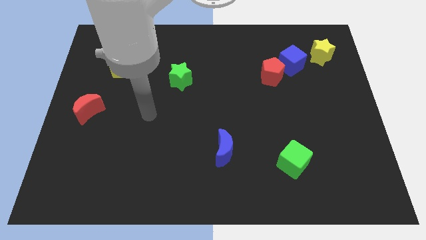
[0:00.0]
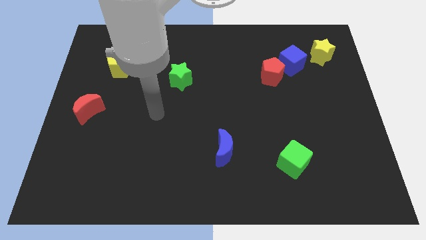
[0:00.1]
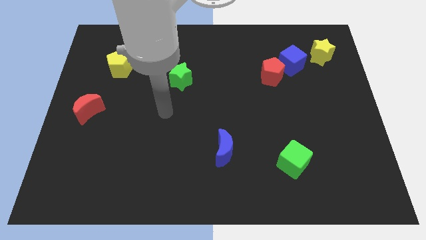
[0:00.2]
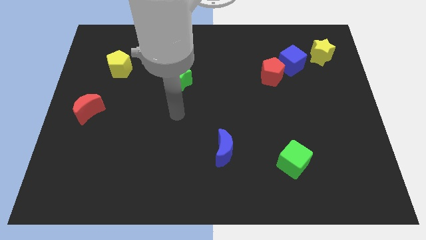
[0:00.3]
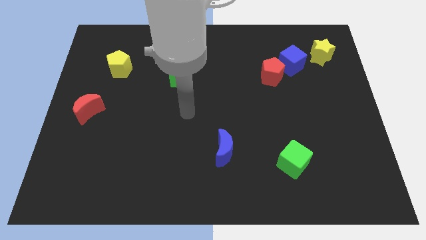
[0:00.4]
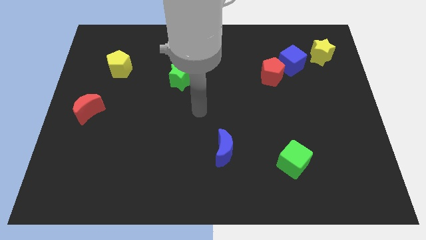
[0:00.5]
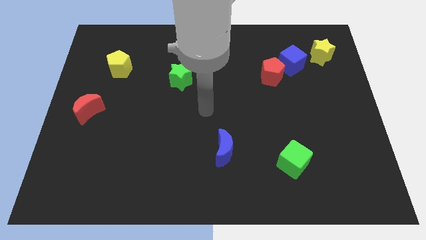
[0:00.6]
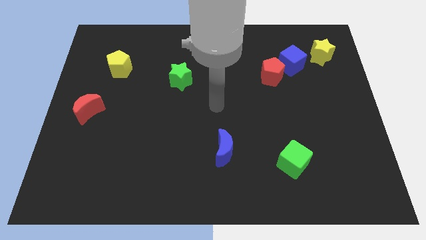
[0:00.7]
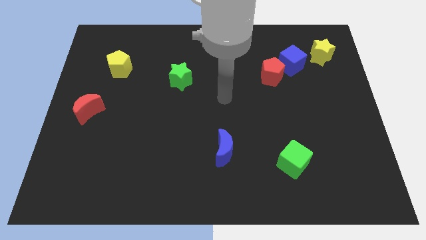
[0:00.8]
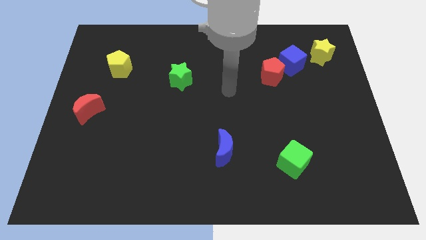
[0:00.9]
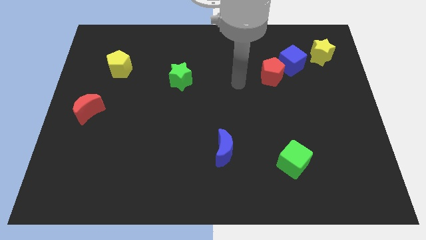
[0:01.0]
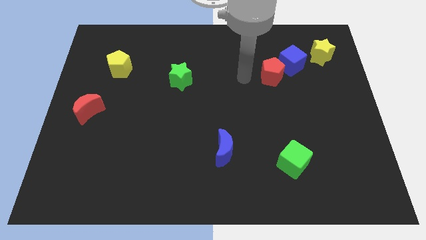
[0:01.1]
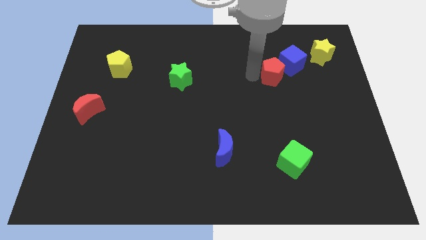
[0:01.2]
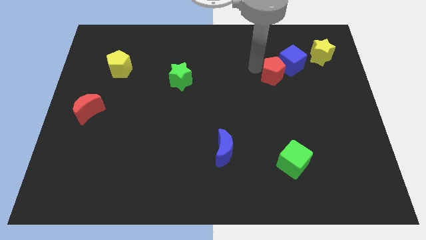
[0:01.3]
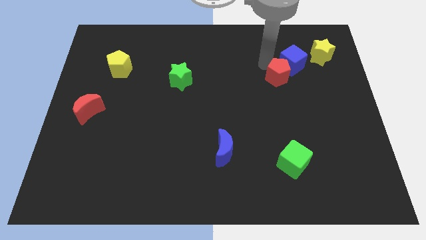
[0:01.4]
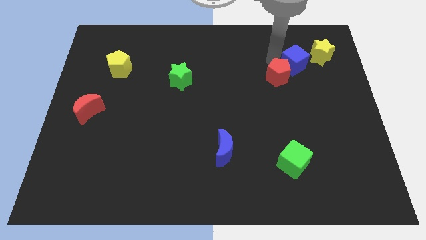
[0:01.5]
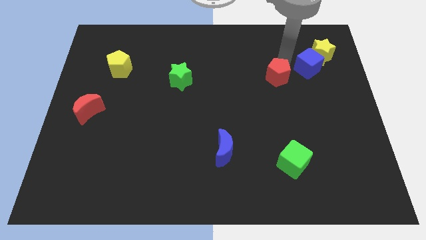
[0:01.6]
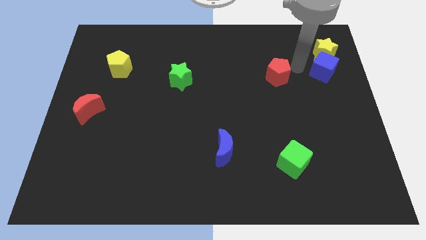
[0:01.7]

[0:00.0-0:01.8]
separate the red pentagon from the blue cube

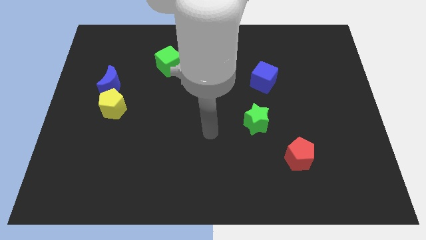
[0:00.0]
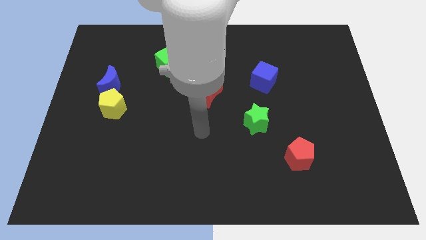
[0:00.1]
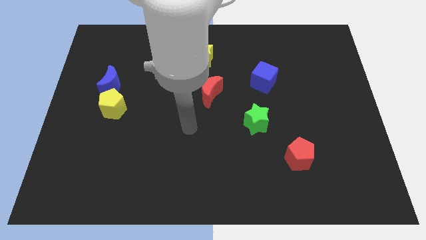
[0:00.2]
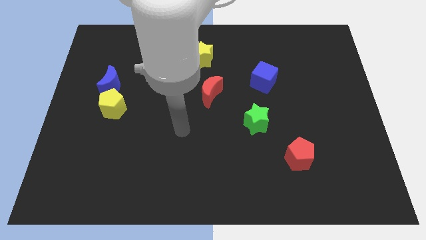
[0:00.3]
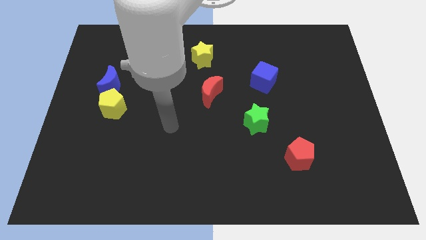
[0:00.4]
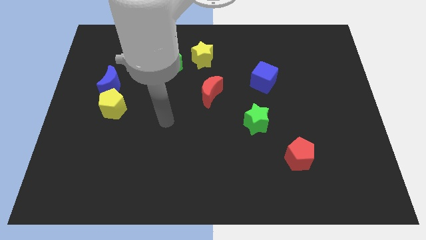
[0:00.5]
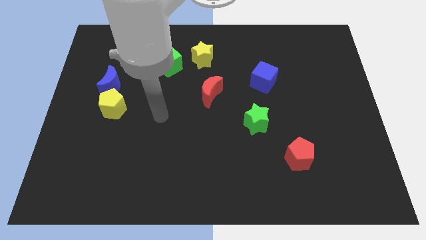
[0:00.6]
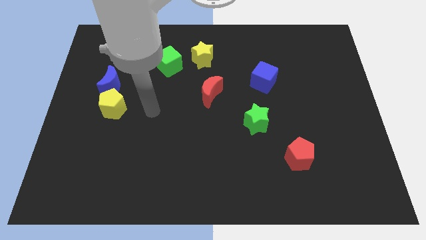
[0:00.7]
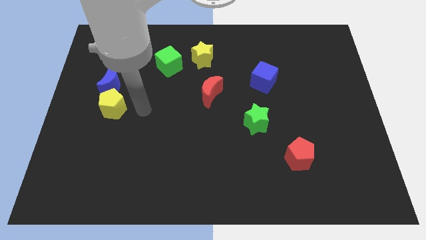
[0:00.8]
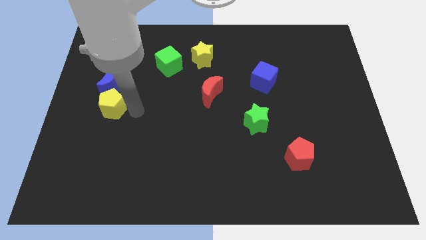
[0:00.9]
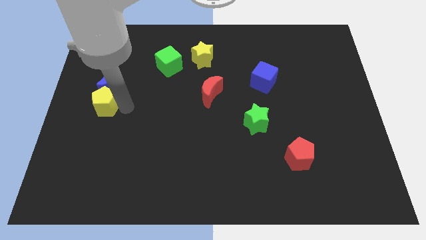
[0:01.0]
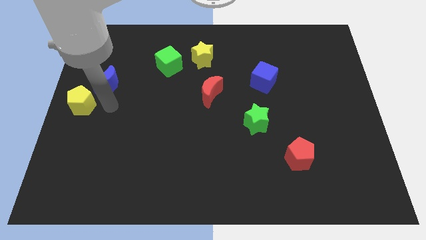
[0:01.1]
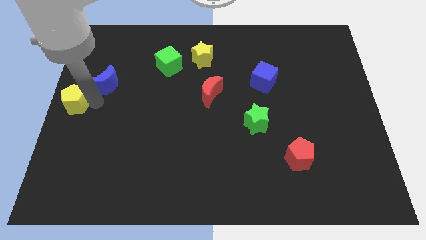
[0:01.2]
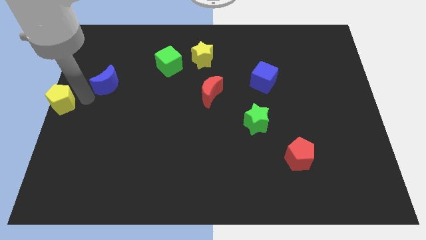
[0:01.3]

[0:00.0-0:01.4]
pull the blue moon apart from the yellow pentagon

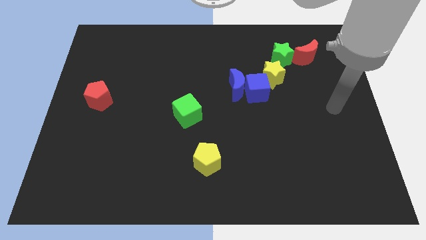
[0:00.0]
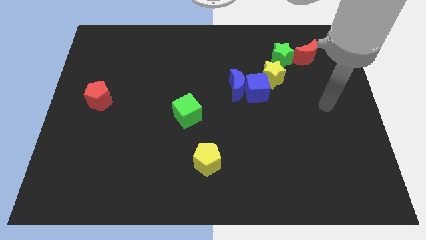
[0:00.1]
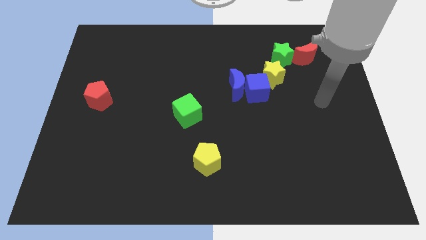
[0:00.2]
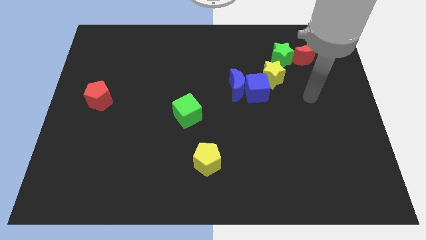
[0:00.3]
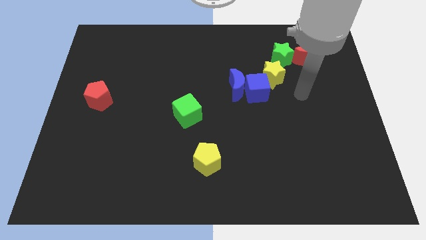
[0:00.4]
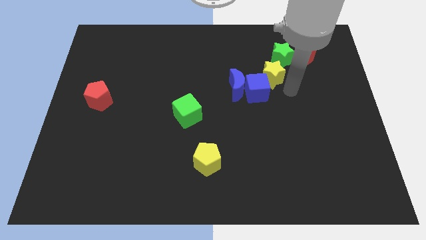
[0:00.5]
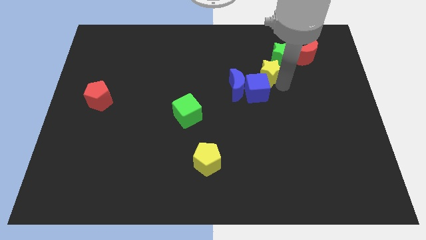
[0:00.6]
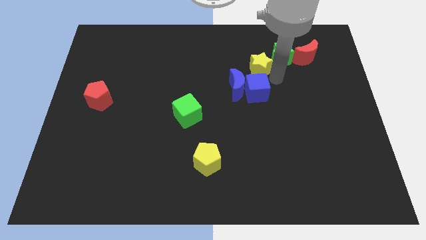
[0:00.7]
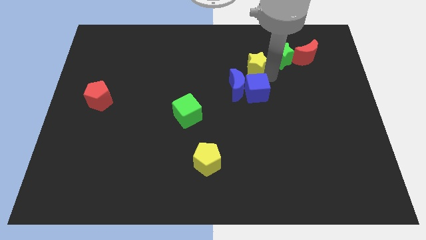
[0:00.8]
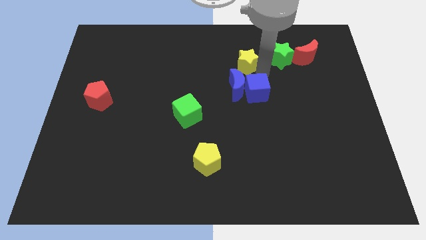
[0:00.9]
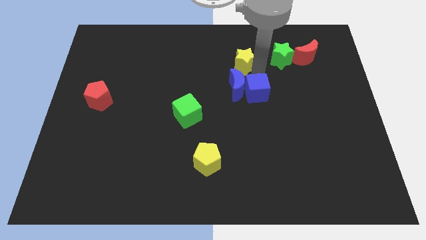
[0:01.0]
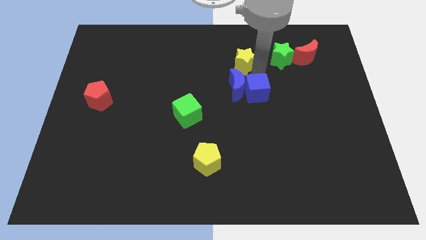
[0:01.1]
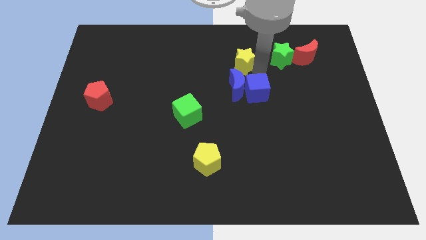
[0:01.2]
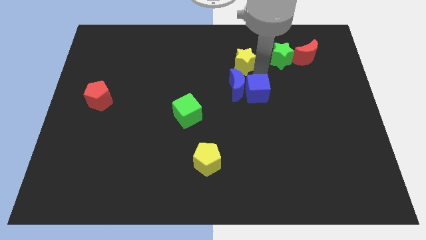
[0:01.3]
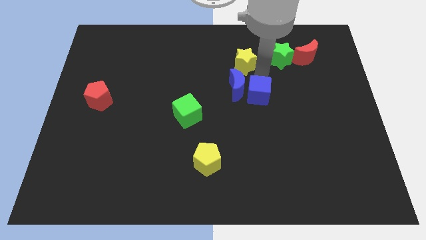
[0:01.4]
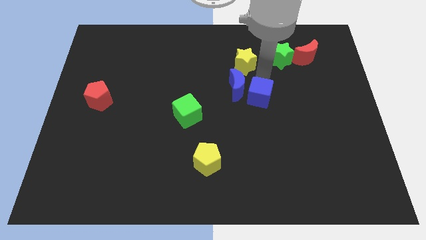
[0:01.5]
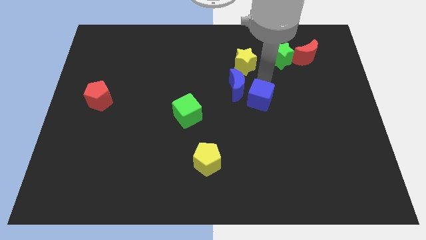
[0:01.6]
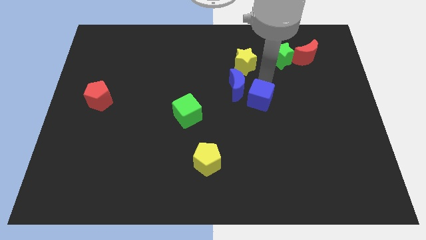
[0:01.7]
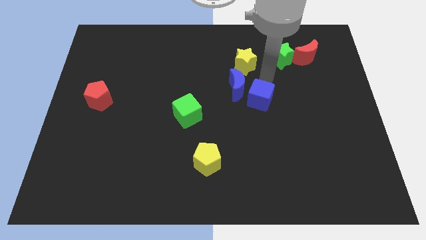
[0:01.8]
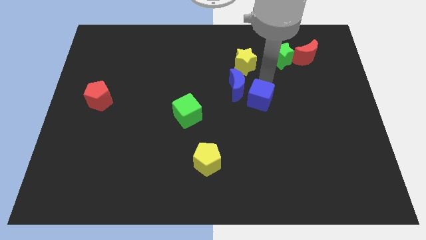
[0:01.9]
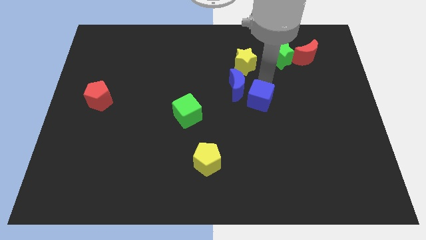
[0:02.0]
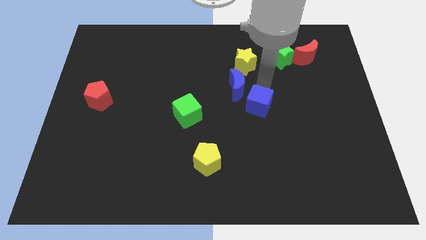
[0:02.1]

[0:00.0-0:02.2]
pull the blue cube apart from the blue moon and yellow star

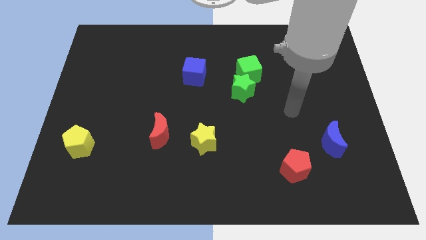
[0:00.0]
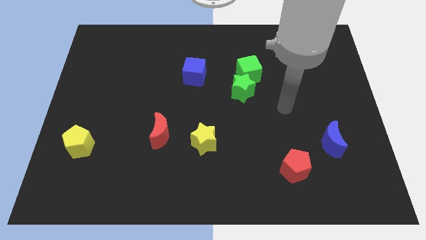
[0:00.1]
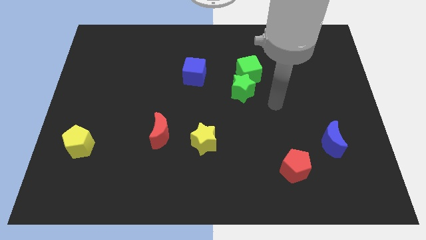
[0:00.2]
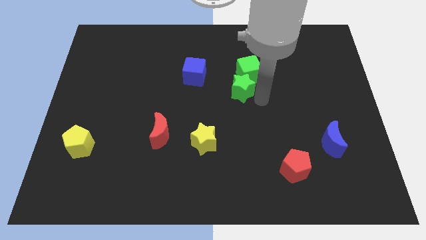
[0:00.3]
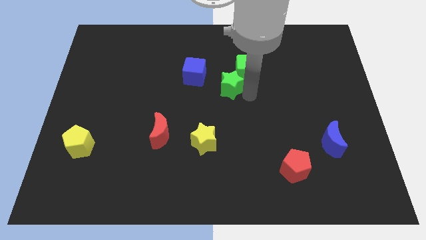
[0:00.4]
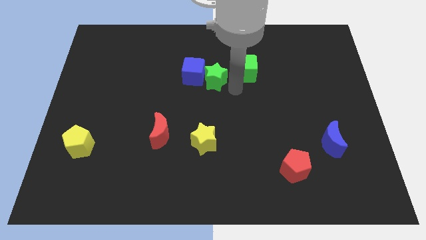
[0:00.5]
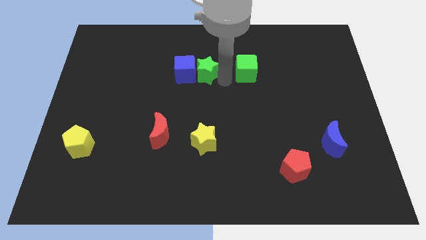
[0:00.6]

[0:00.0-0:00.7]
pull the green cube apart from the green star

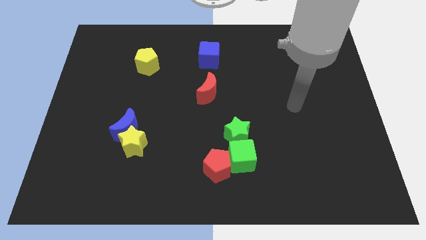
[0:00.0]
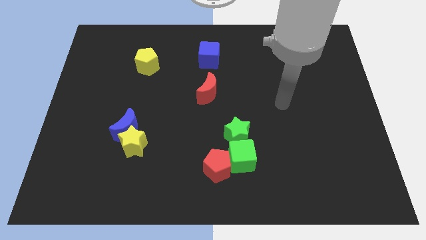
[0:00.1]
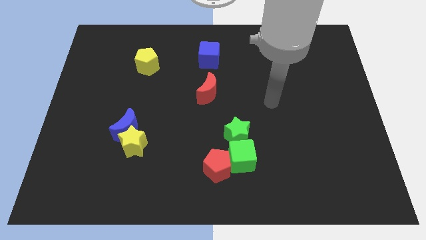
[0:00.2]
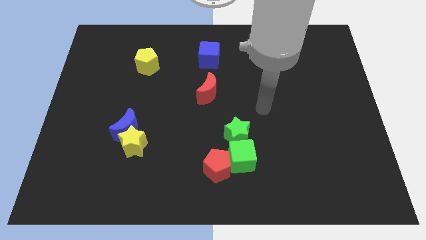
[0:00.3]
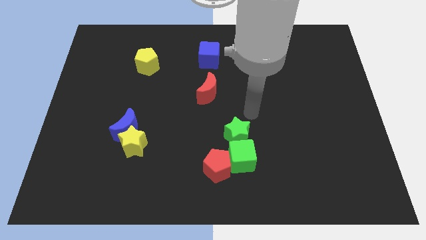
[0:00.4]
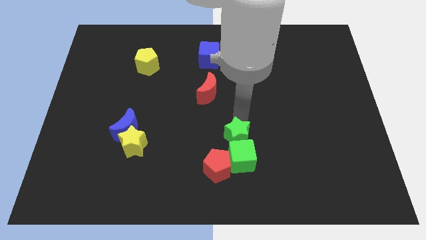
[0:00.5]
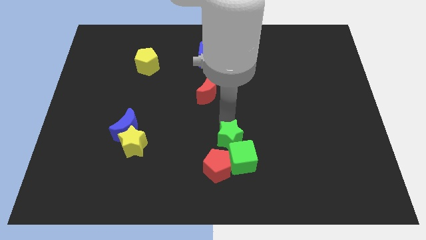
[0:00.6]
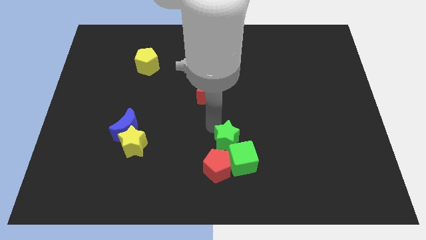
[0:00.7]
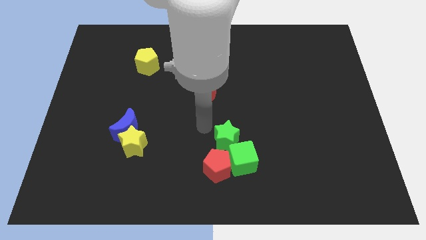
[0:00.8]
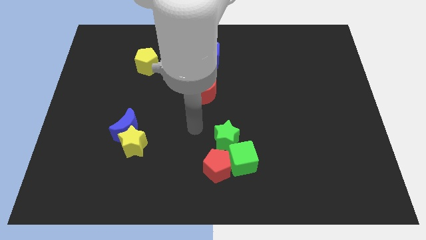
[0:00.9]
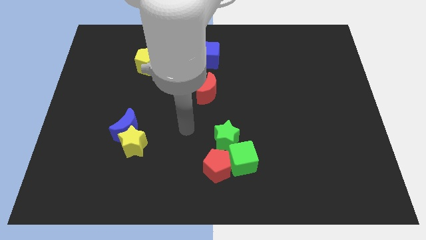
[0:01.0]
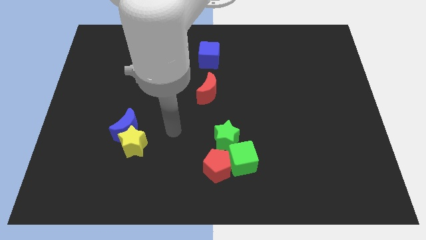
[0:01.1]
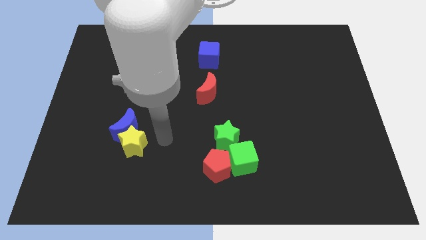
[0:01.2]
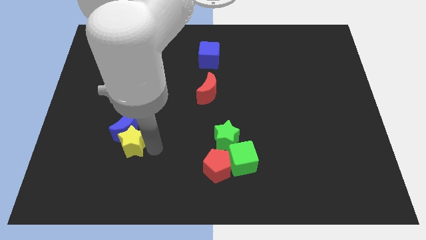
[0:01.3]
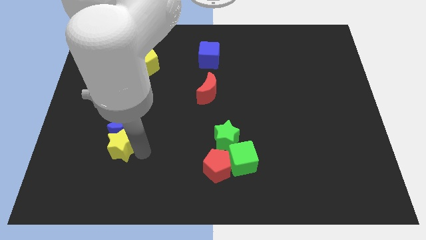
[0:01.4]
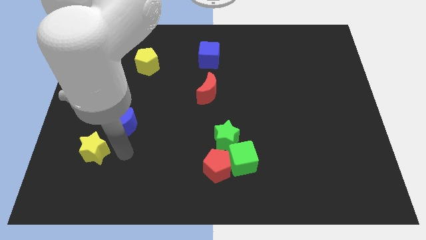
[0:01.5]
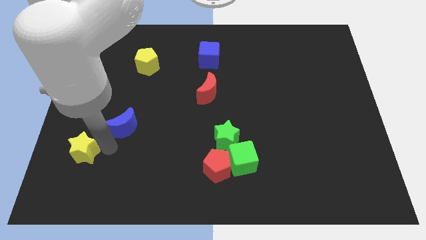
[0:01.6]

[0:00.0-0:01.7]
separate the blue moon from the yellow star

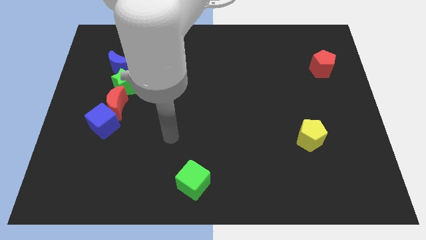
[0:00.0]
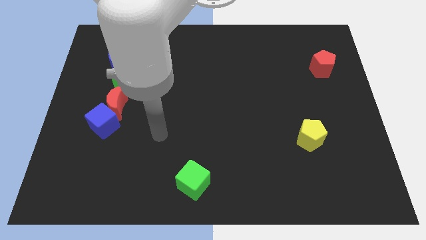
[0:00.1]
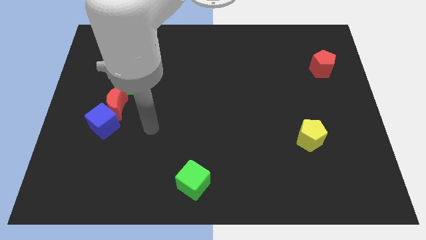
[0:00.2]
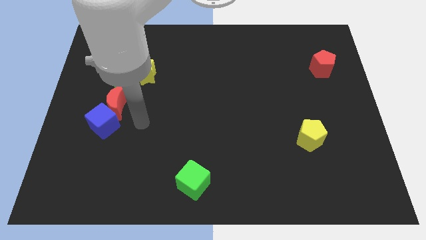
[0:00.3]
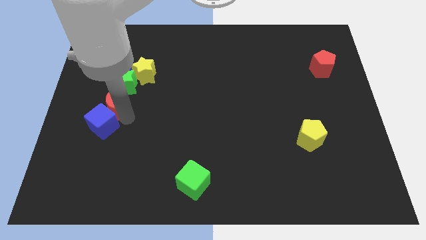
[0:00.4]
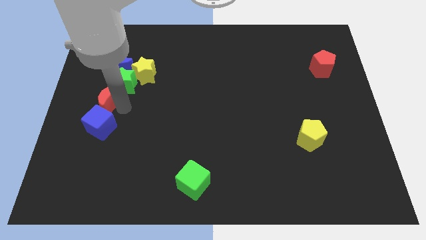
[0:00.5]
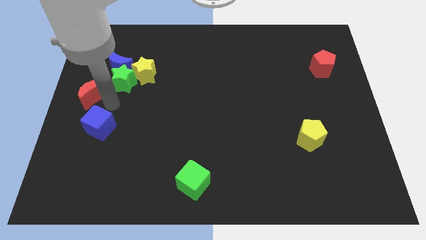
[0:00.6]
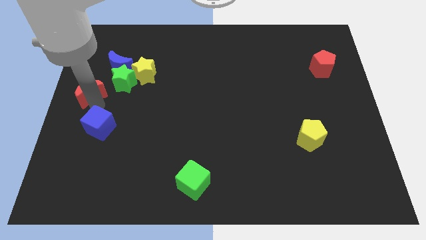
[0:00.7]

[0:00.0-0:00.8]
separate the blue cube from the red moon

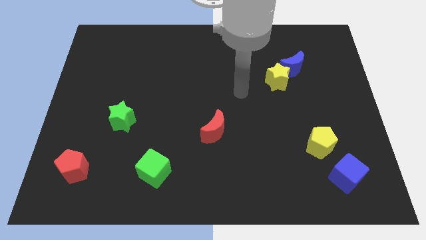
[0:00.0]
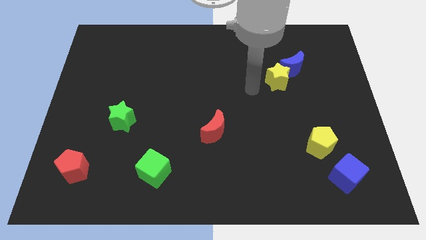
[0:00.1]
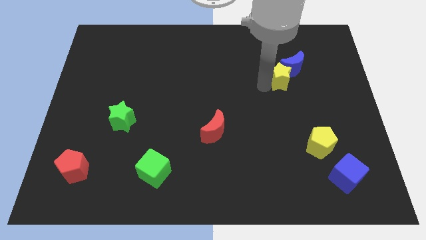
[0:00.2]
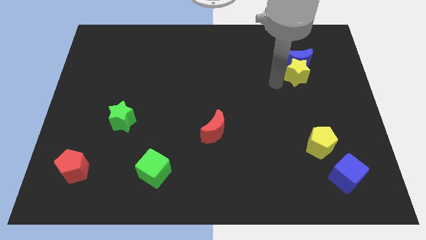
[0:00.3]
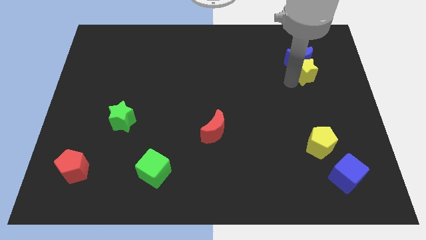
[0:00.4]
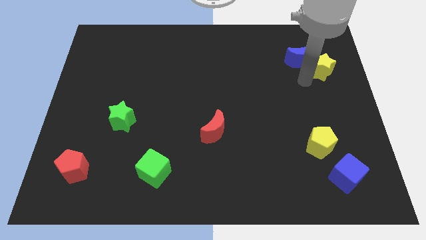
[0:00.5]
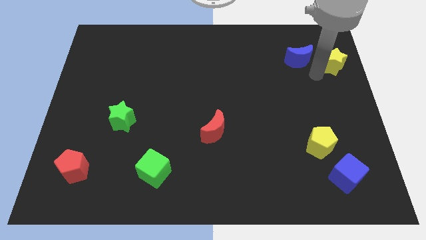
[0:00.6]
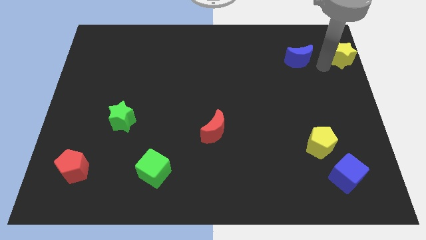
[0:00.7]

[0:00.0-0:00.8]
pull the blue moon apart from the yellow star

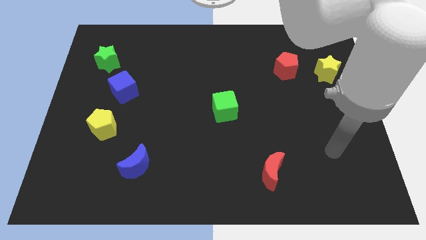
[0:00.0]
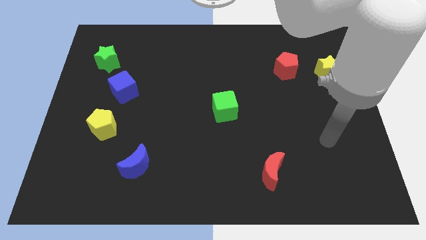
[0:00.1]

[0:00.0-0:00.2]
pull the red pentagon apart from the yellow star
